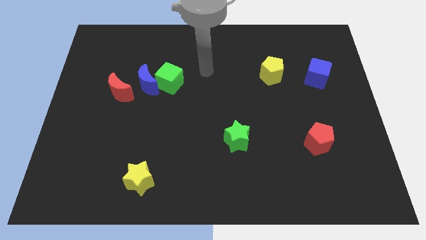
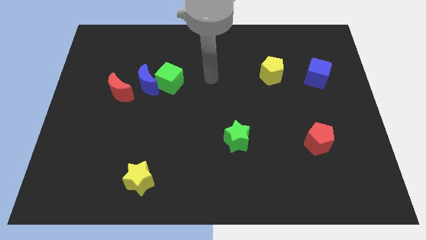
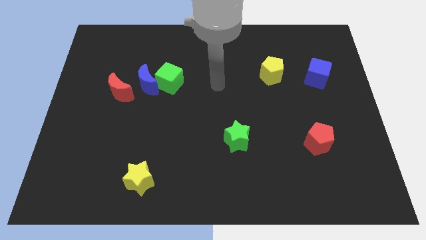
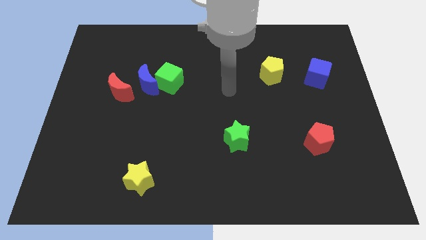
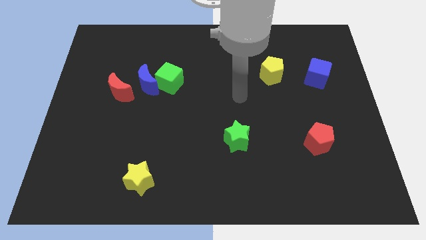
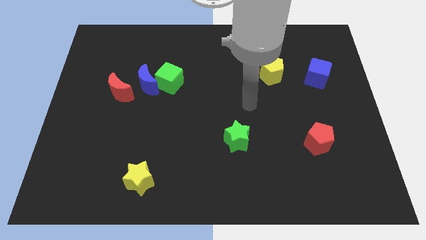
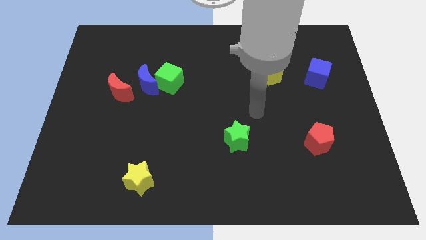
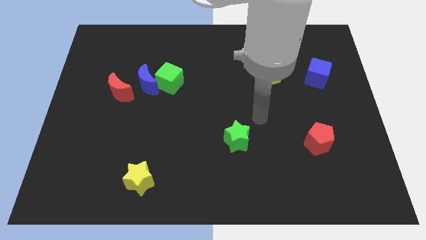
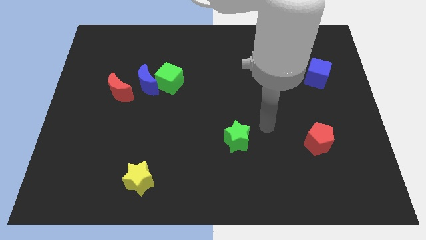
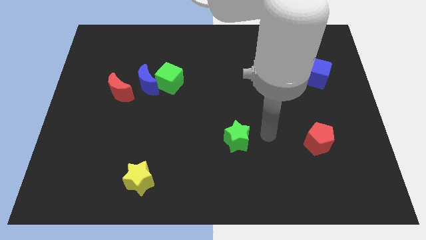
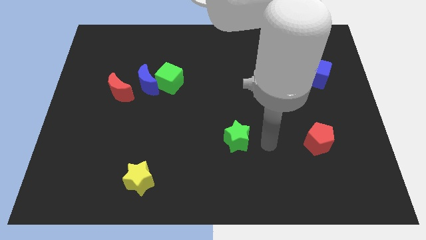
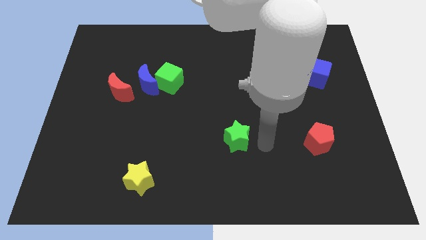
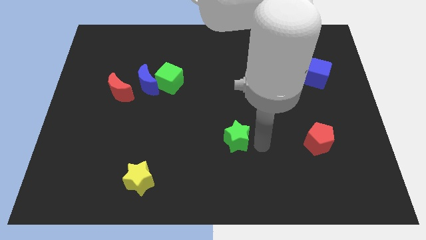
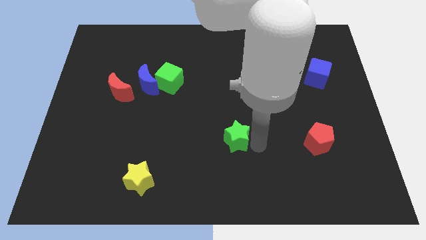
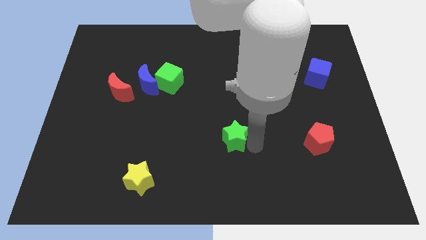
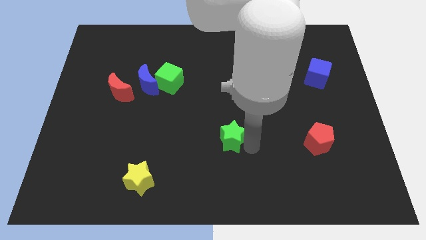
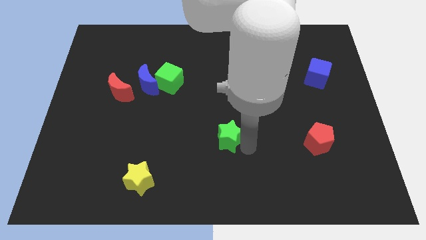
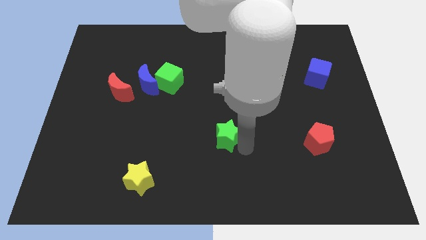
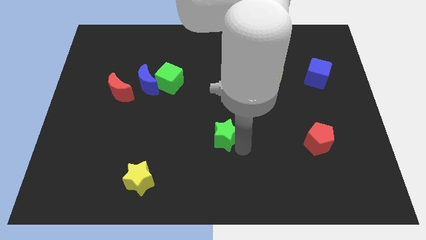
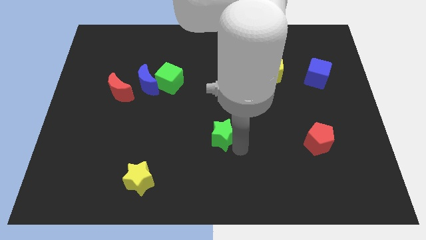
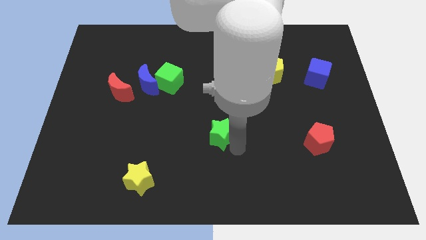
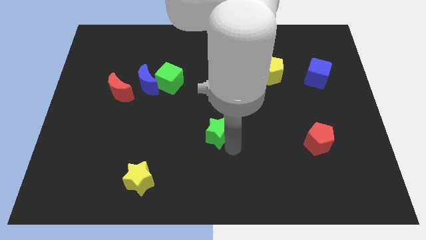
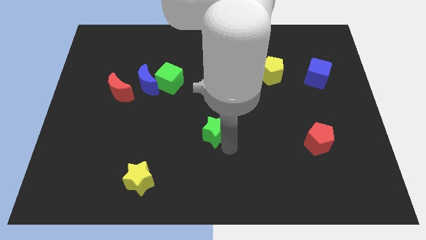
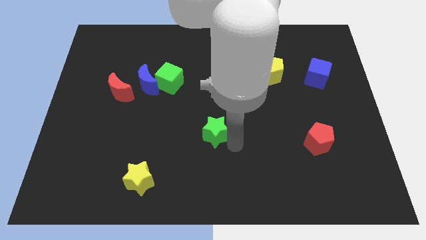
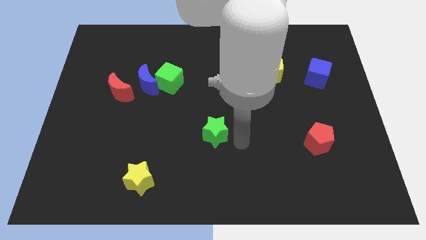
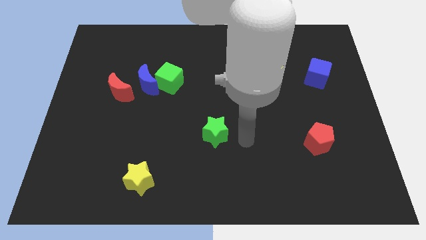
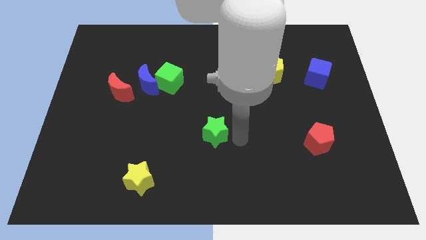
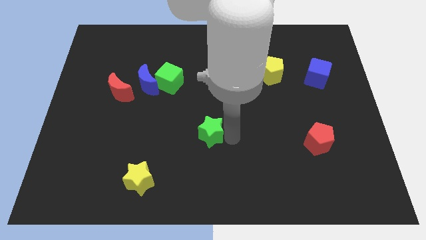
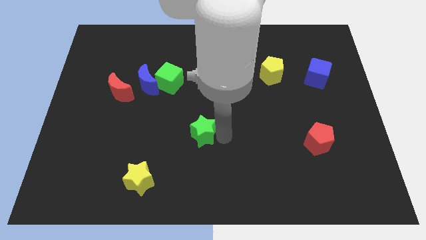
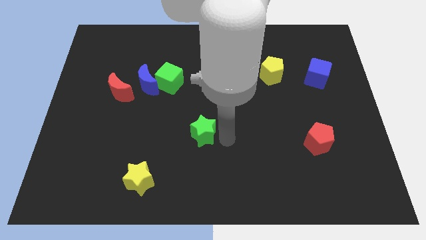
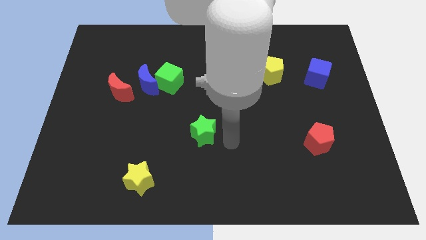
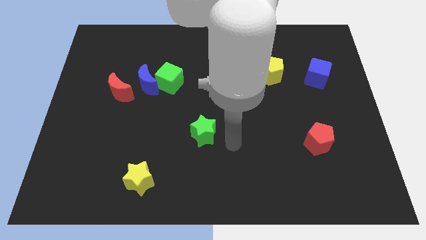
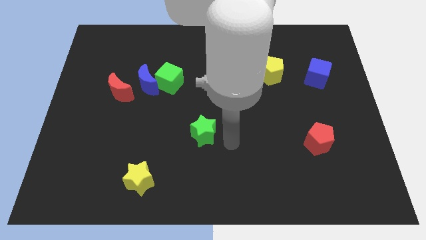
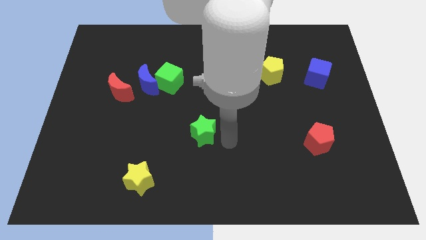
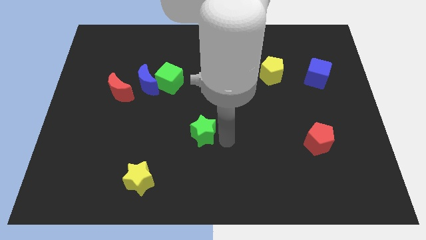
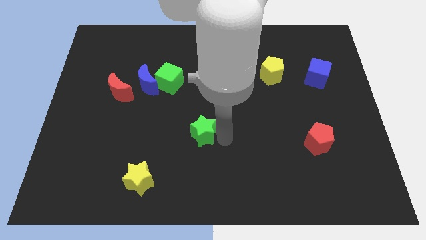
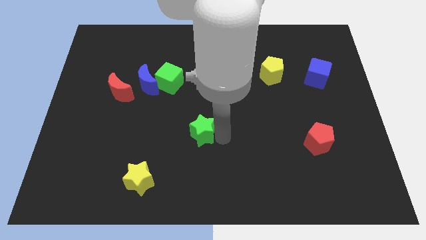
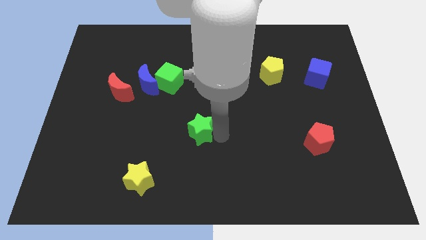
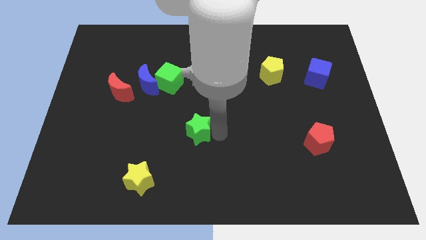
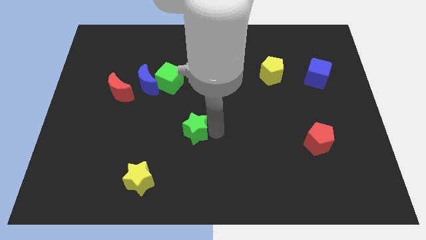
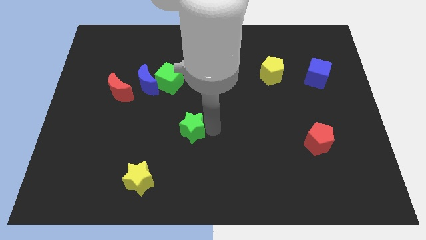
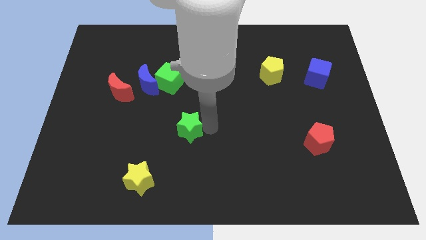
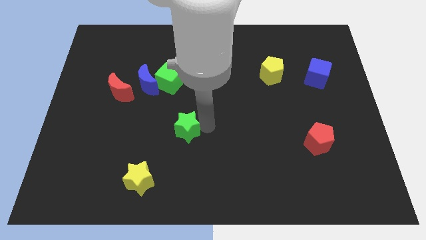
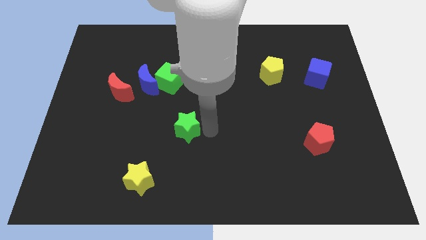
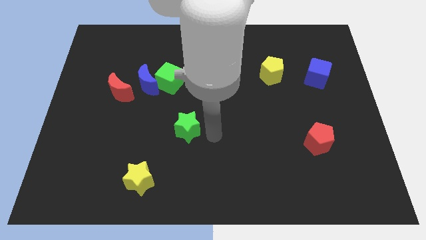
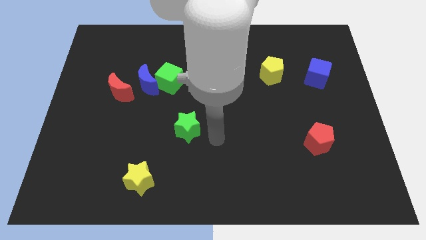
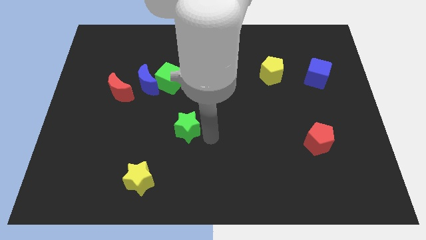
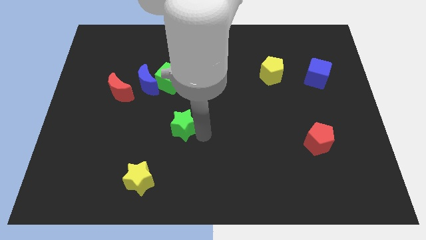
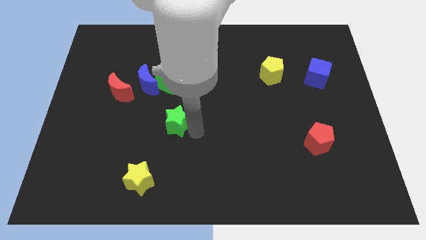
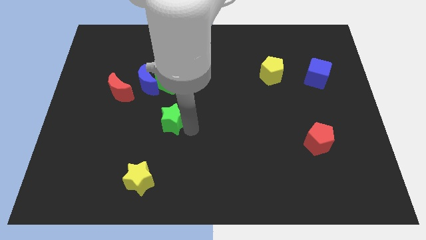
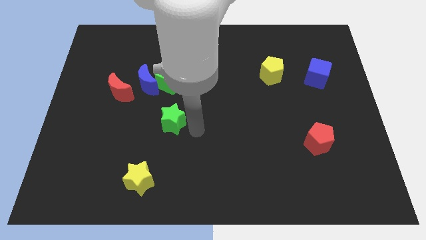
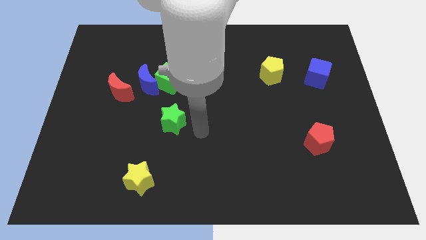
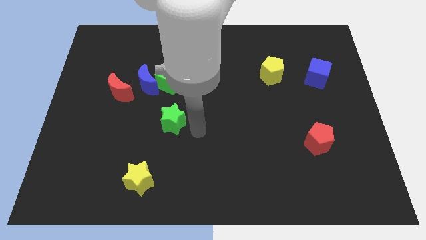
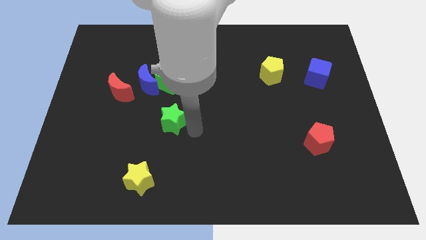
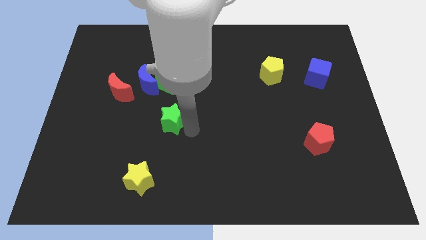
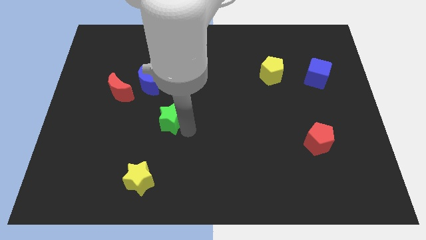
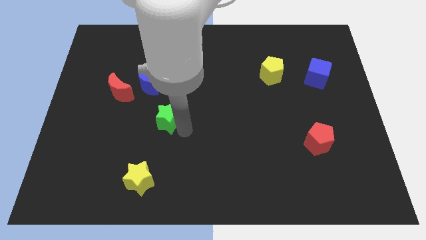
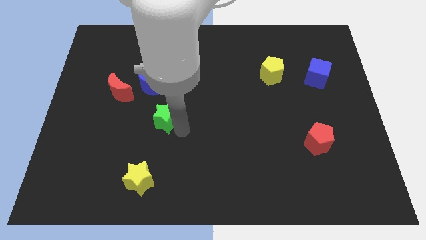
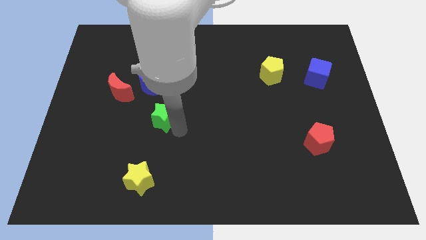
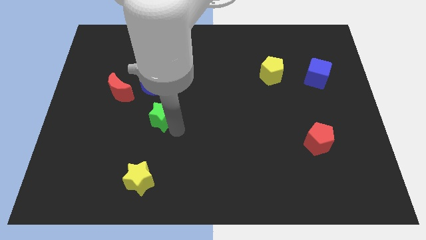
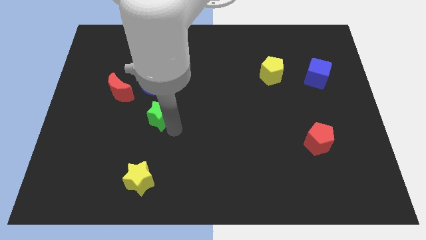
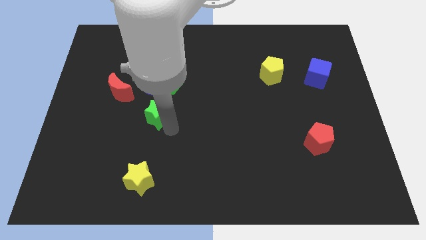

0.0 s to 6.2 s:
push the green star to the bottom right side of the red moon
